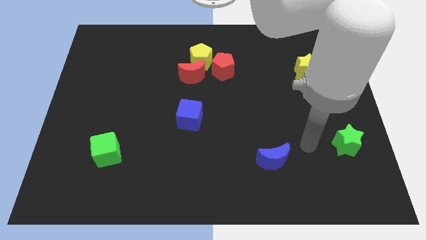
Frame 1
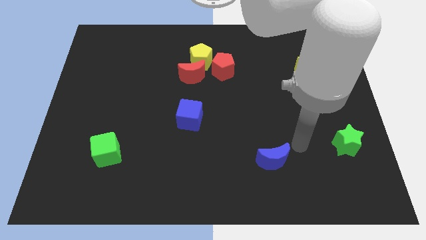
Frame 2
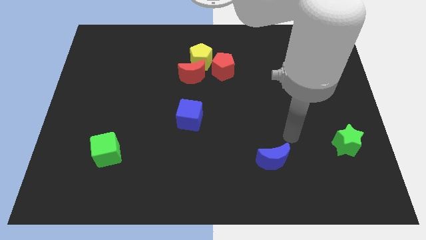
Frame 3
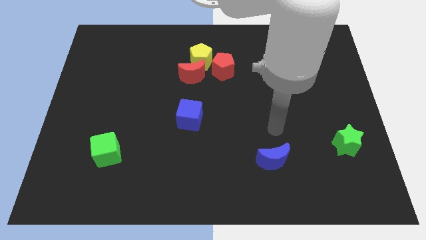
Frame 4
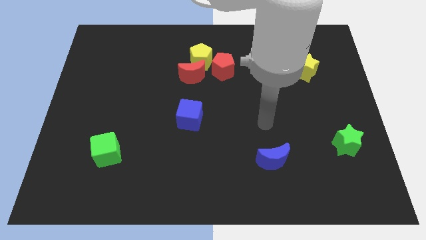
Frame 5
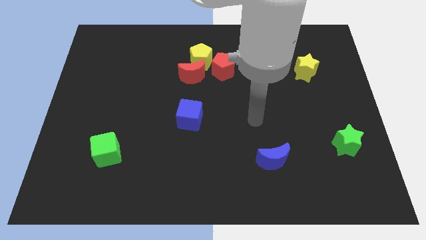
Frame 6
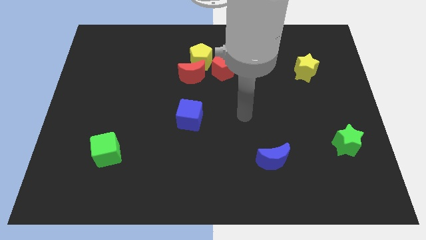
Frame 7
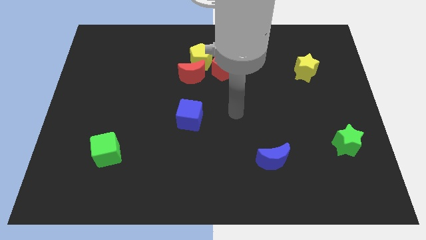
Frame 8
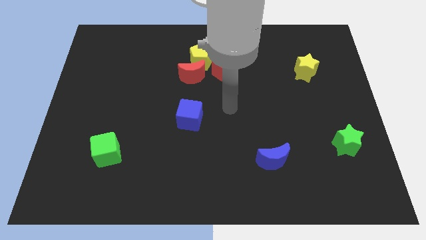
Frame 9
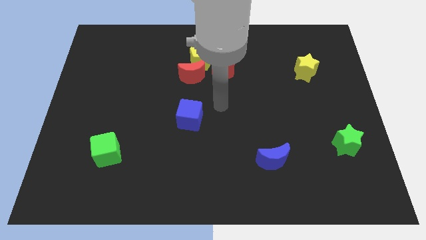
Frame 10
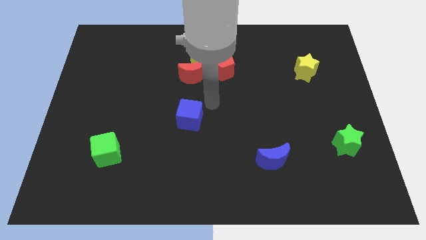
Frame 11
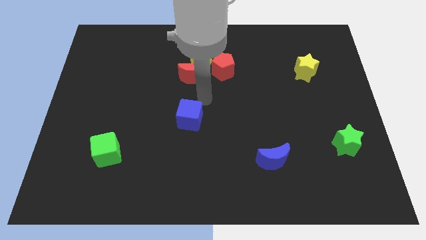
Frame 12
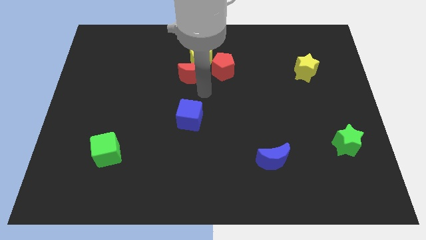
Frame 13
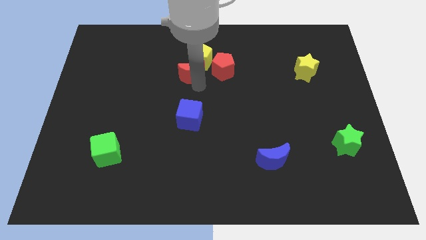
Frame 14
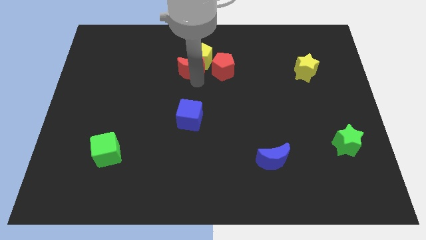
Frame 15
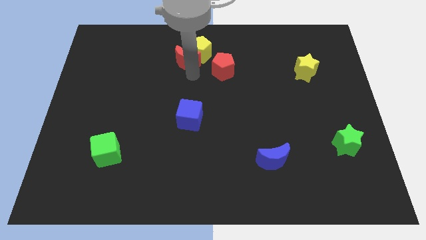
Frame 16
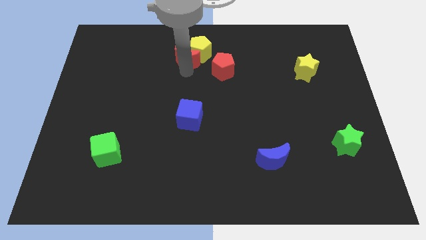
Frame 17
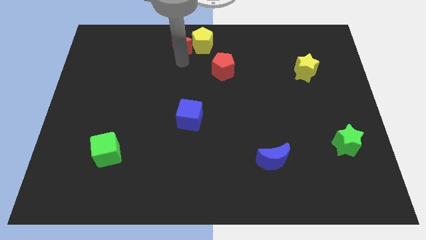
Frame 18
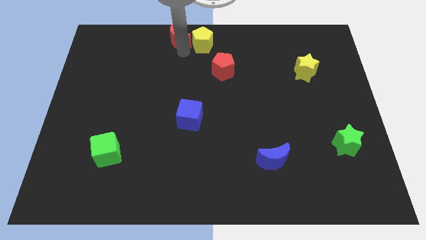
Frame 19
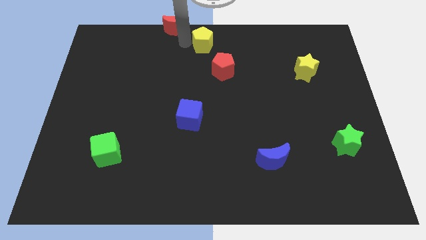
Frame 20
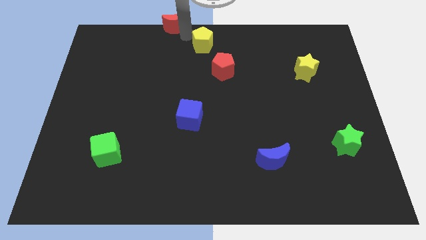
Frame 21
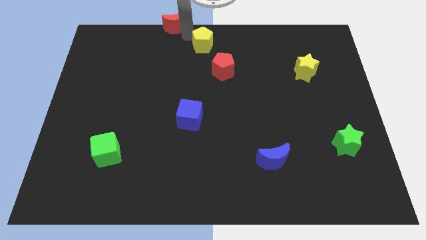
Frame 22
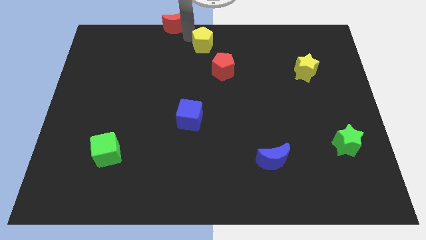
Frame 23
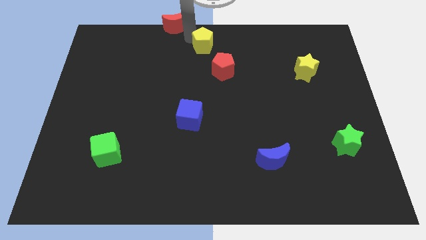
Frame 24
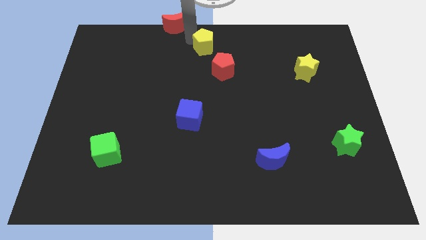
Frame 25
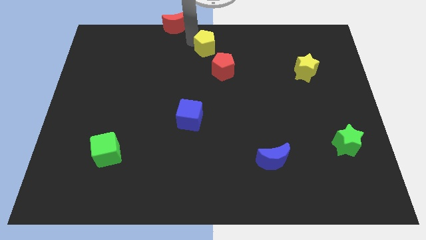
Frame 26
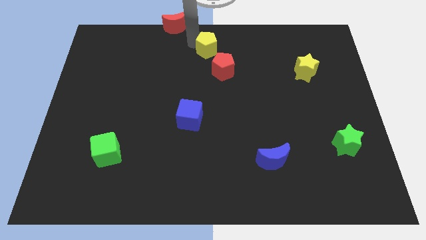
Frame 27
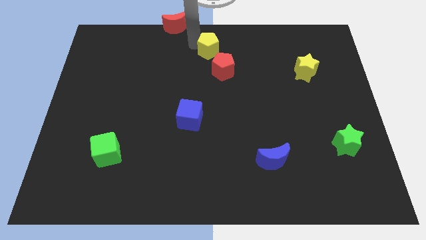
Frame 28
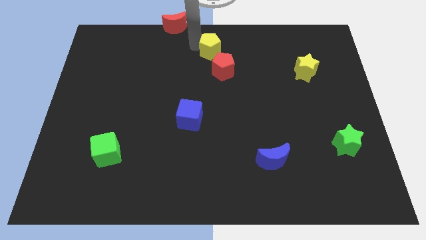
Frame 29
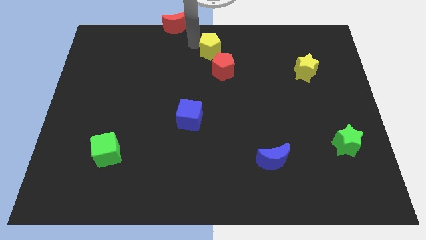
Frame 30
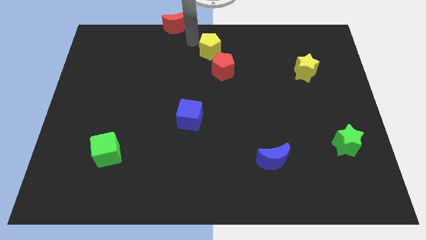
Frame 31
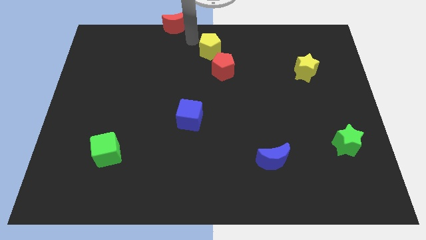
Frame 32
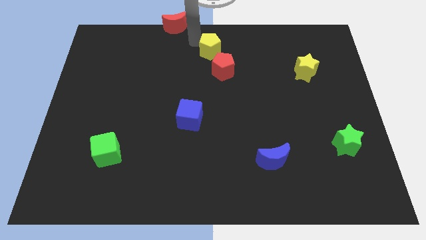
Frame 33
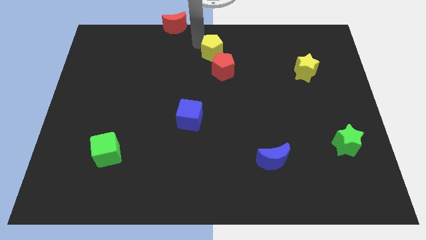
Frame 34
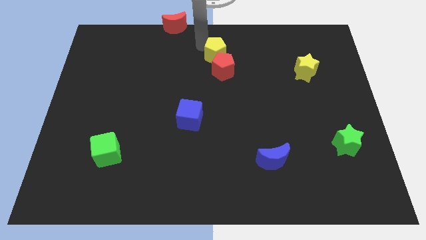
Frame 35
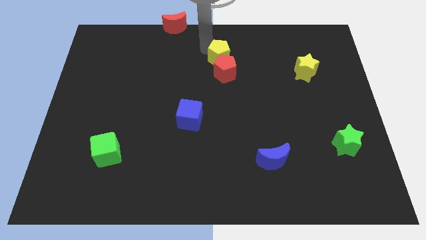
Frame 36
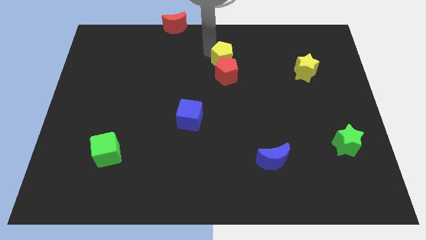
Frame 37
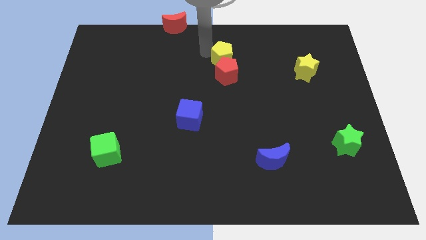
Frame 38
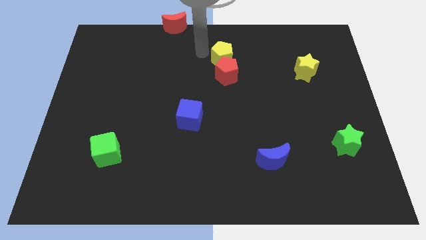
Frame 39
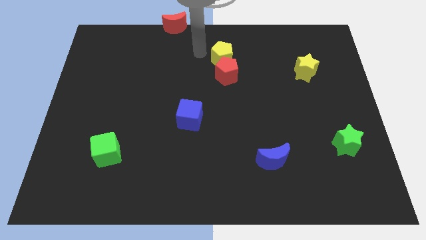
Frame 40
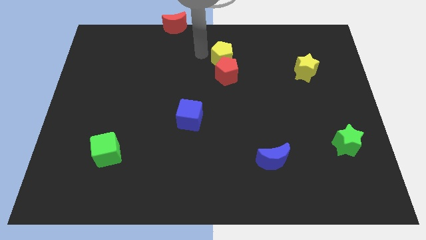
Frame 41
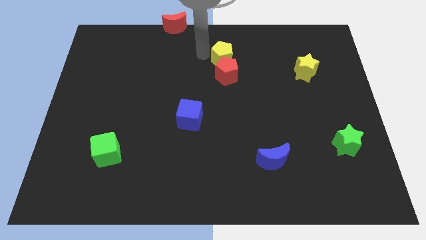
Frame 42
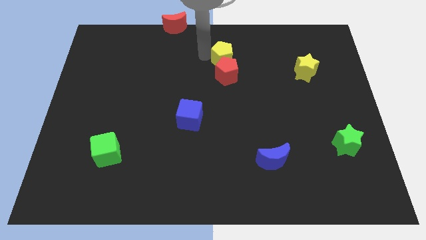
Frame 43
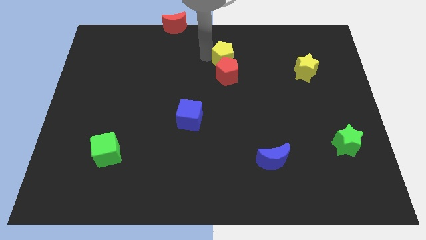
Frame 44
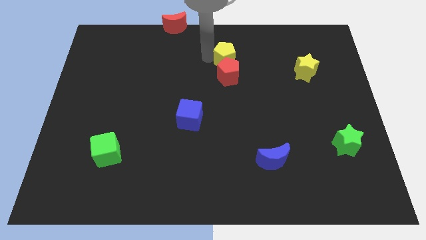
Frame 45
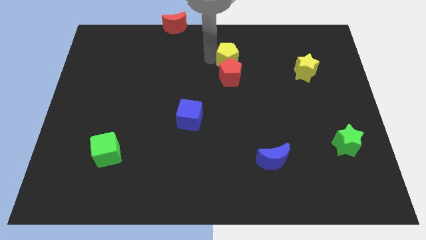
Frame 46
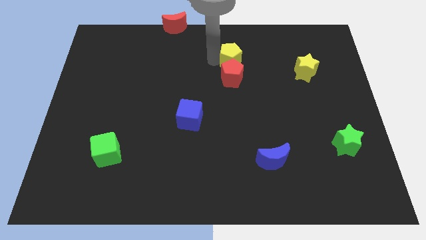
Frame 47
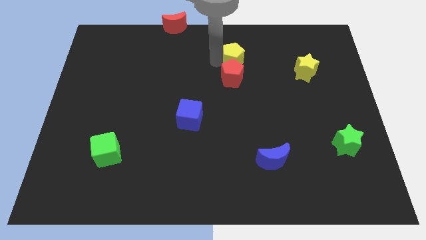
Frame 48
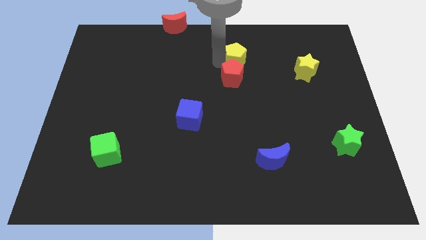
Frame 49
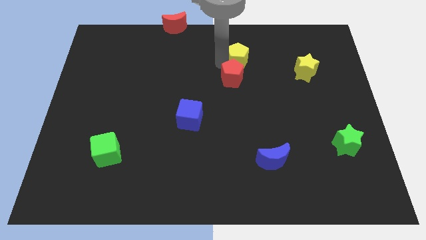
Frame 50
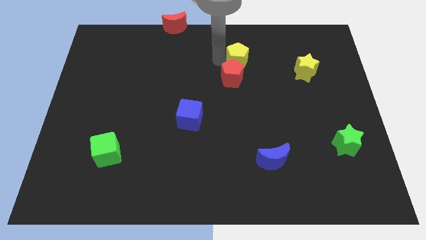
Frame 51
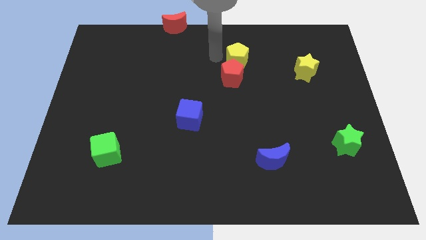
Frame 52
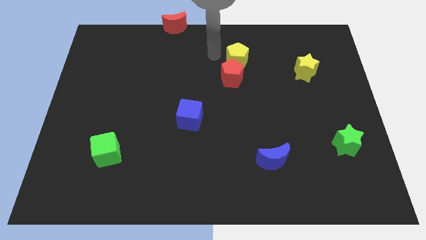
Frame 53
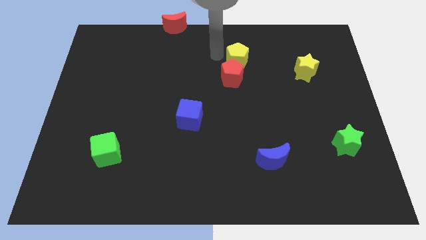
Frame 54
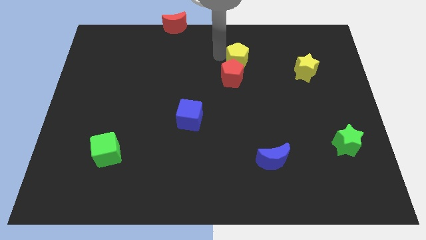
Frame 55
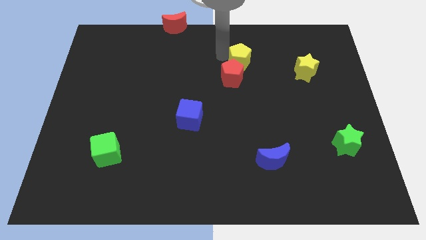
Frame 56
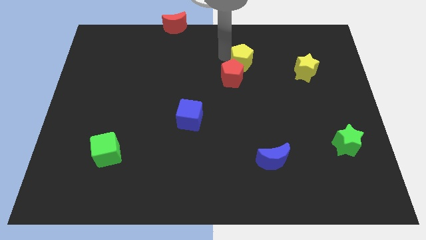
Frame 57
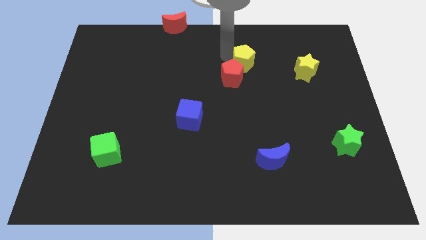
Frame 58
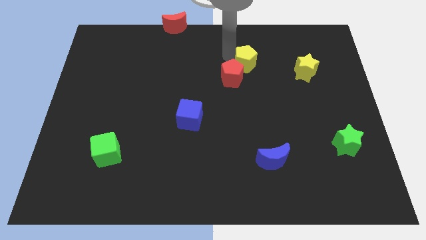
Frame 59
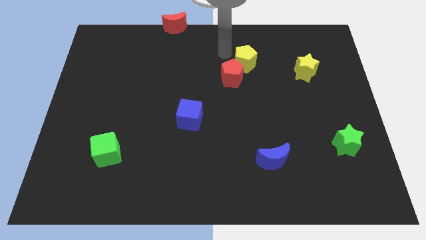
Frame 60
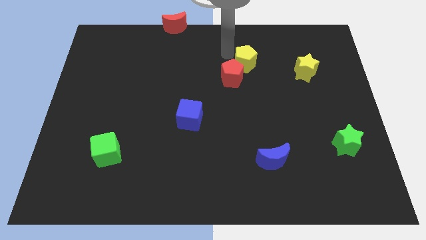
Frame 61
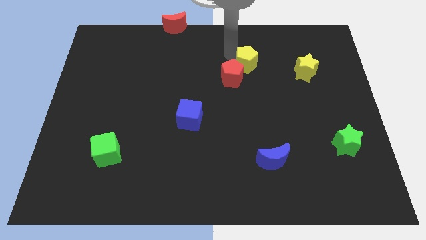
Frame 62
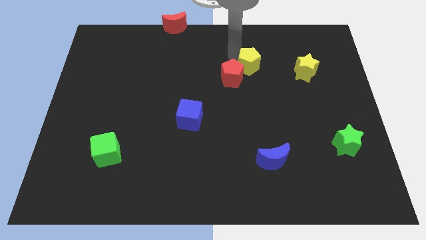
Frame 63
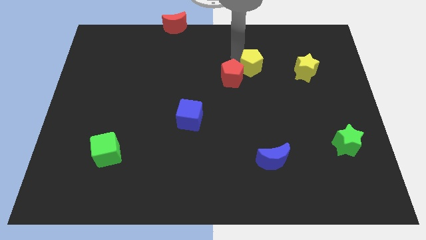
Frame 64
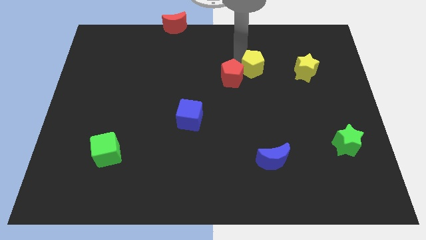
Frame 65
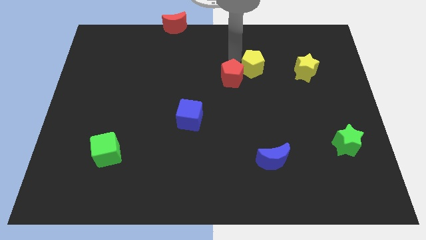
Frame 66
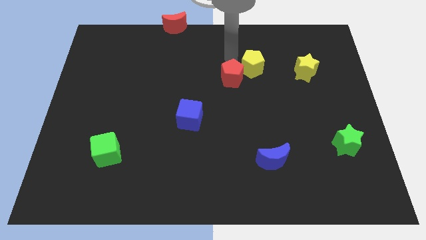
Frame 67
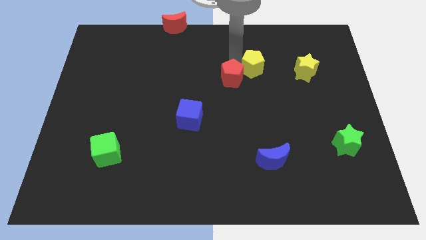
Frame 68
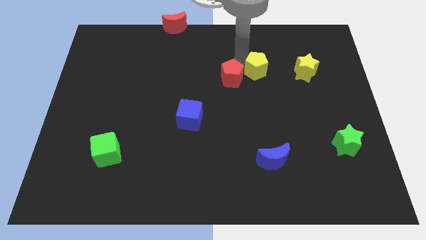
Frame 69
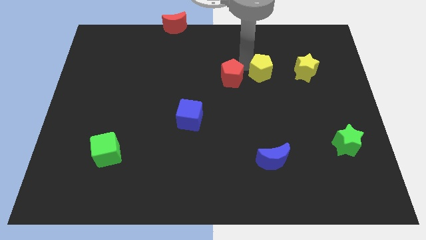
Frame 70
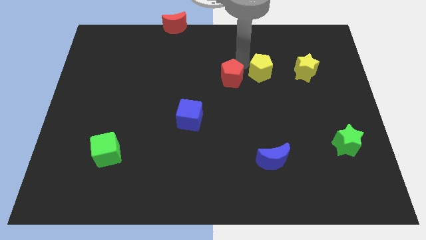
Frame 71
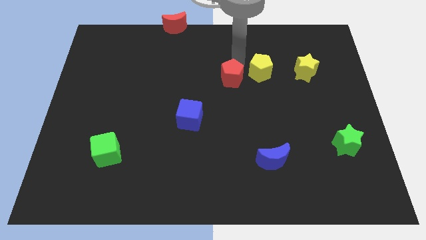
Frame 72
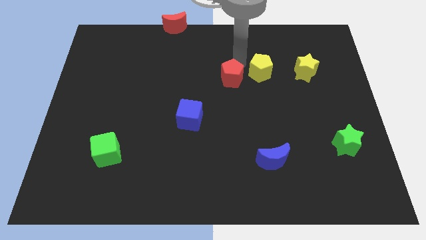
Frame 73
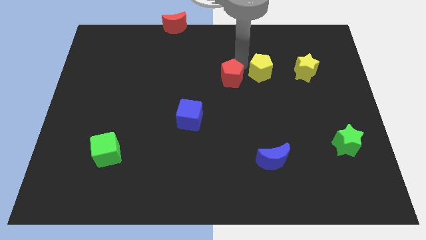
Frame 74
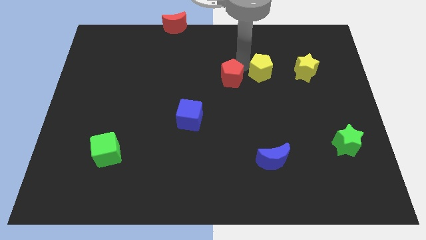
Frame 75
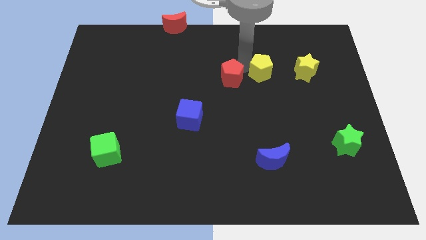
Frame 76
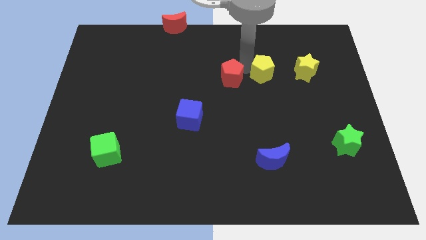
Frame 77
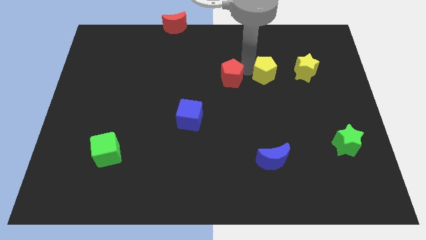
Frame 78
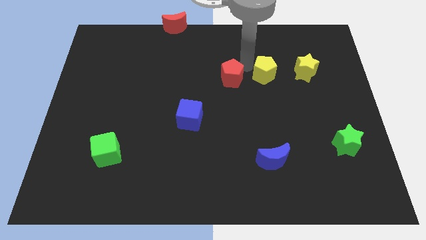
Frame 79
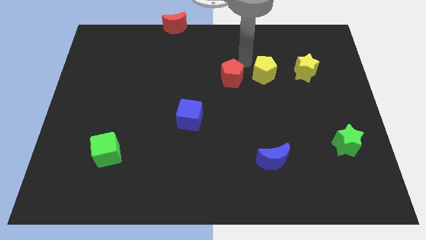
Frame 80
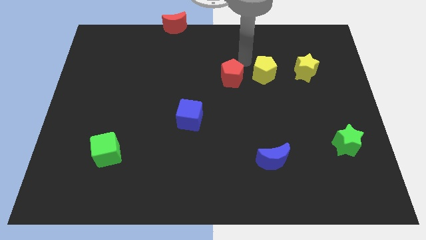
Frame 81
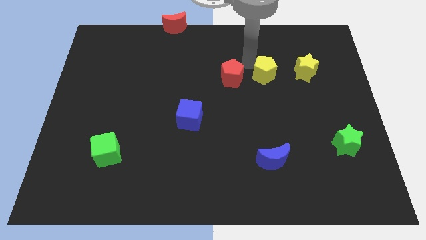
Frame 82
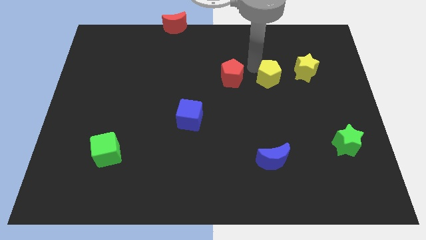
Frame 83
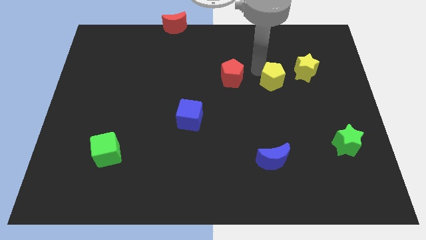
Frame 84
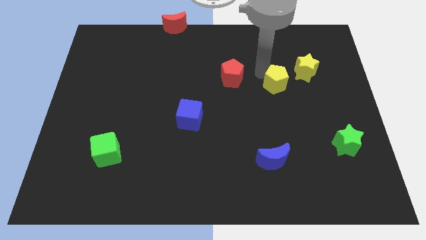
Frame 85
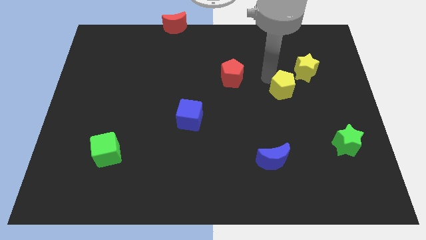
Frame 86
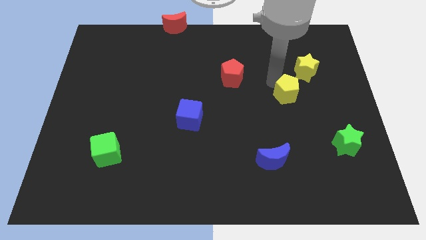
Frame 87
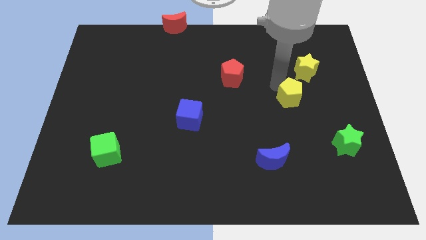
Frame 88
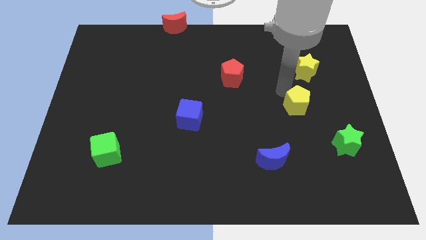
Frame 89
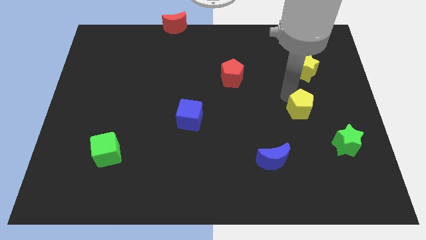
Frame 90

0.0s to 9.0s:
put the yellow pentagon diagonally up and to the left of the green star
